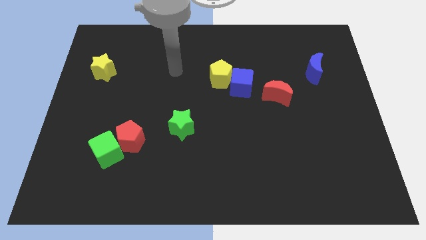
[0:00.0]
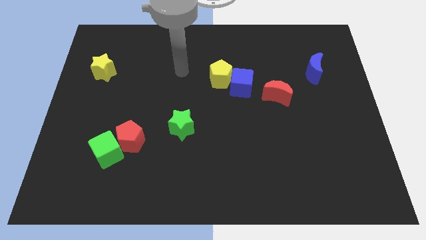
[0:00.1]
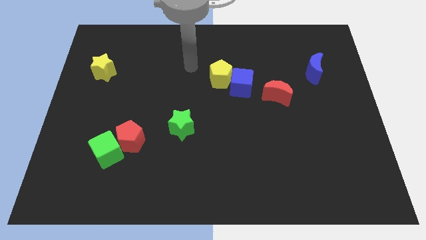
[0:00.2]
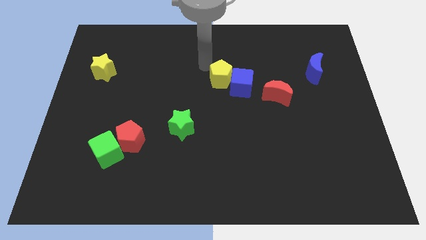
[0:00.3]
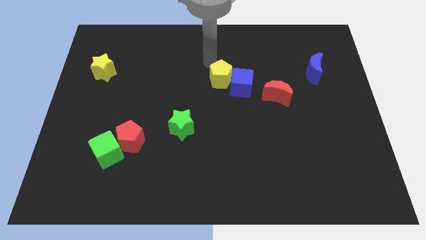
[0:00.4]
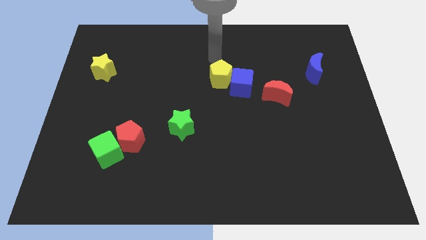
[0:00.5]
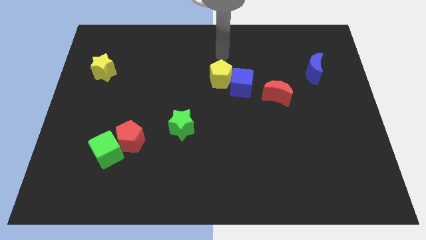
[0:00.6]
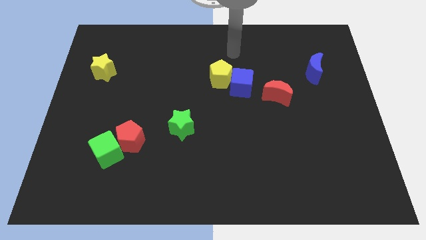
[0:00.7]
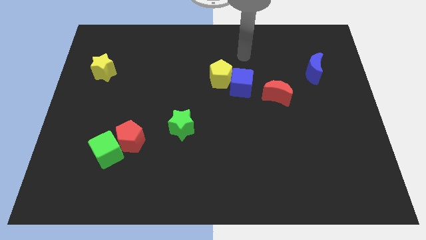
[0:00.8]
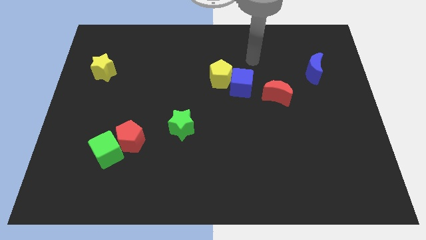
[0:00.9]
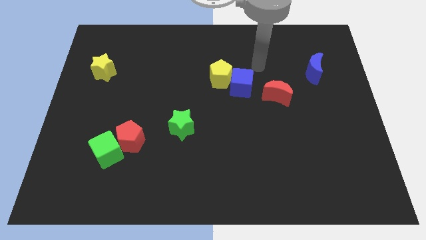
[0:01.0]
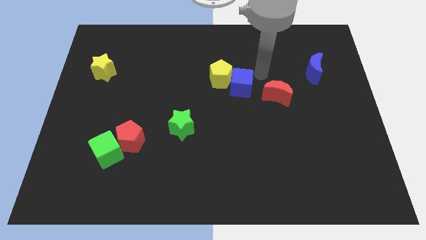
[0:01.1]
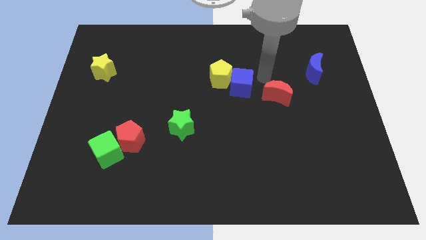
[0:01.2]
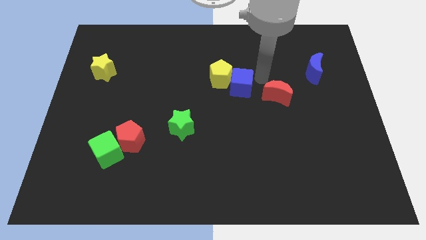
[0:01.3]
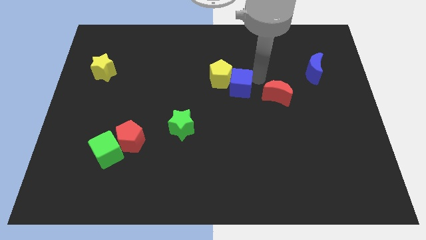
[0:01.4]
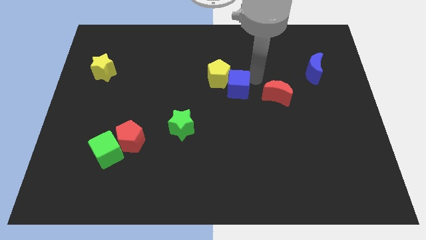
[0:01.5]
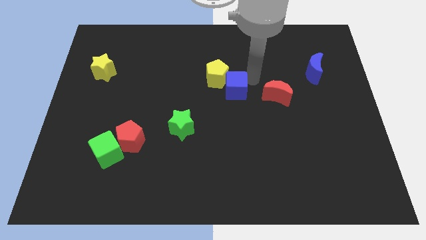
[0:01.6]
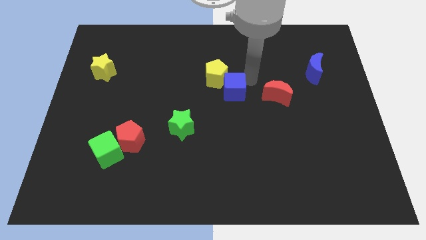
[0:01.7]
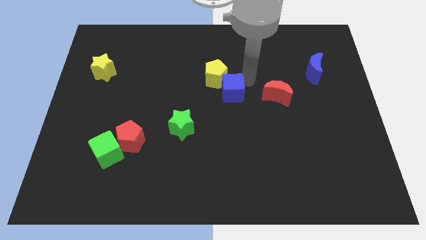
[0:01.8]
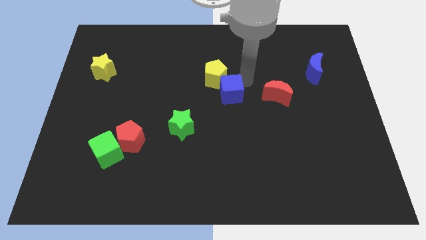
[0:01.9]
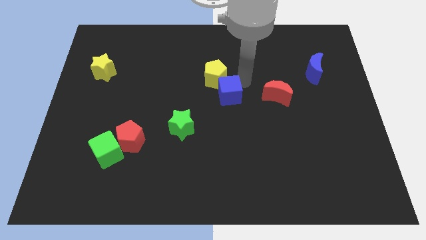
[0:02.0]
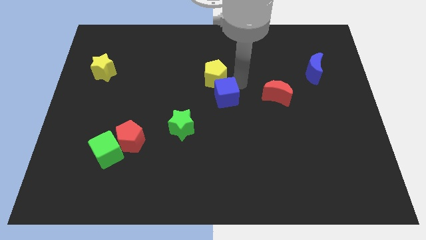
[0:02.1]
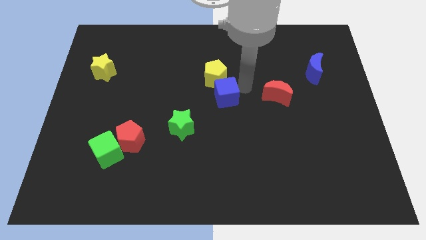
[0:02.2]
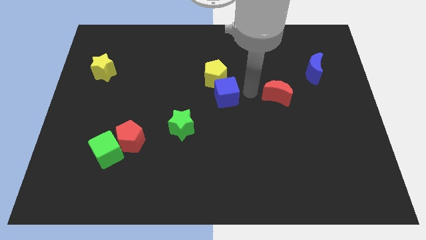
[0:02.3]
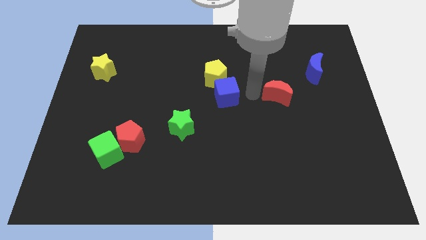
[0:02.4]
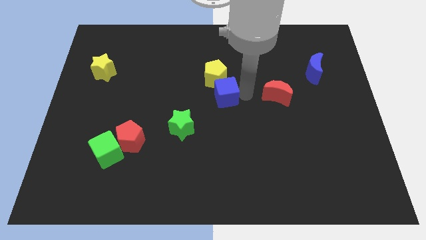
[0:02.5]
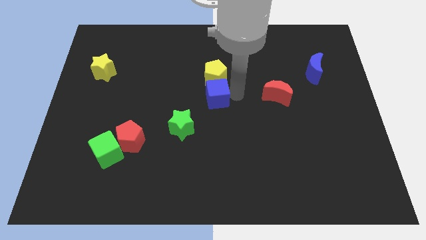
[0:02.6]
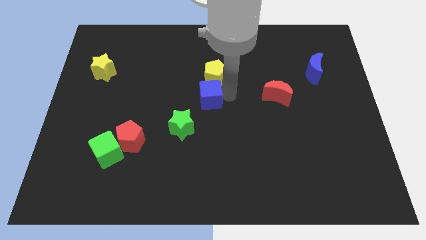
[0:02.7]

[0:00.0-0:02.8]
push the blue cube a bit left

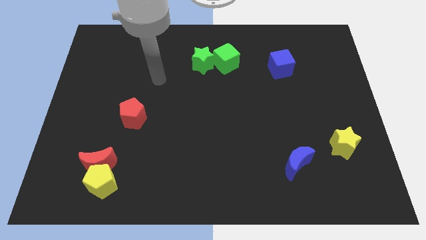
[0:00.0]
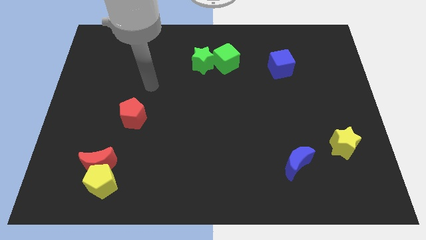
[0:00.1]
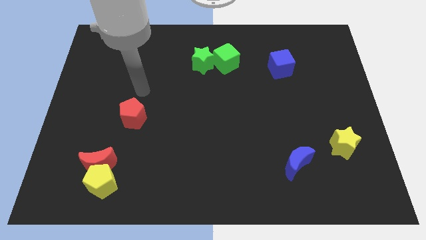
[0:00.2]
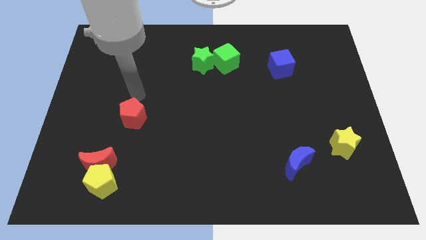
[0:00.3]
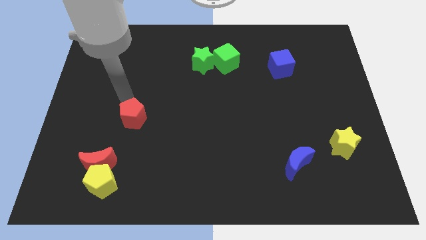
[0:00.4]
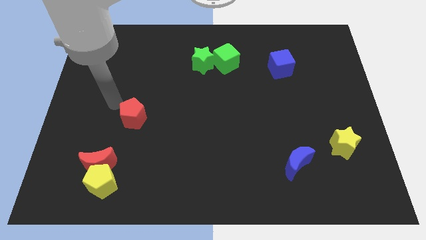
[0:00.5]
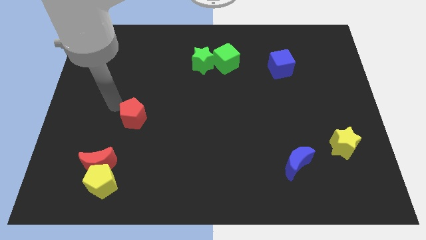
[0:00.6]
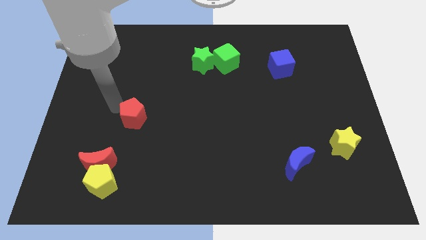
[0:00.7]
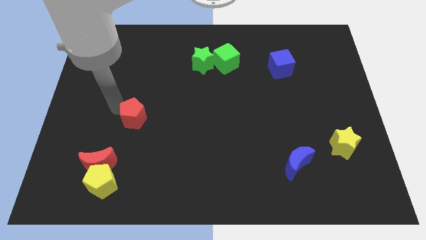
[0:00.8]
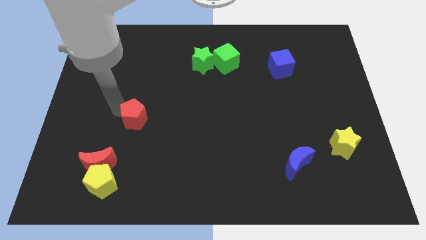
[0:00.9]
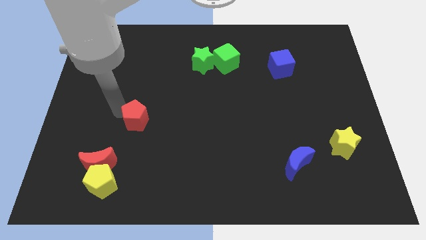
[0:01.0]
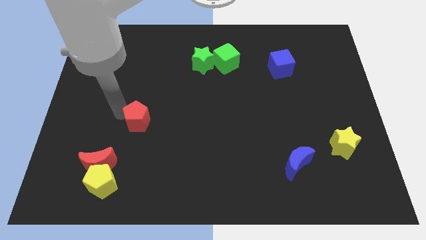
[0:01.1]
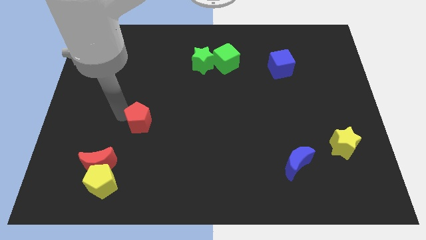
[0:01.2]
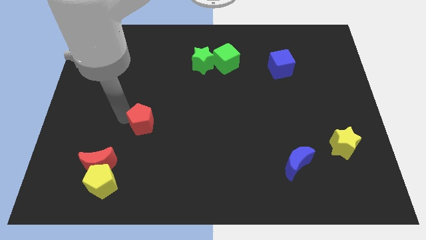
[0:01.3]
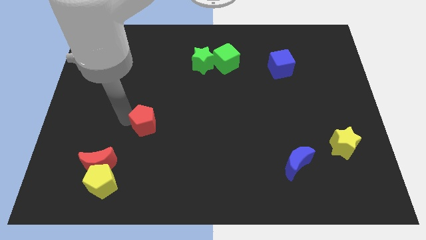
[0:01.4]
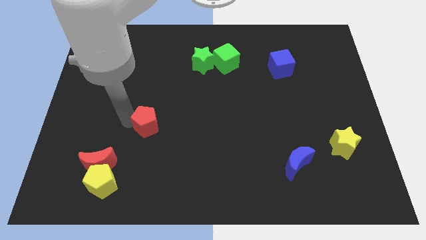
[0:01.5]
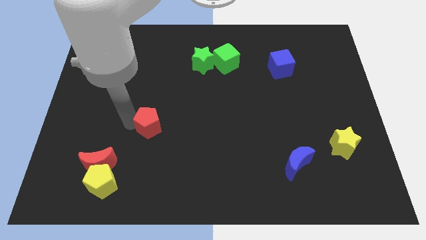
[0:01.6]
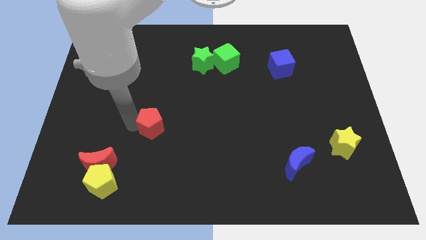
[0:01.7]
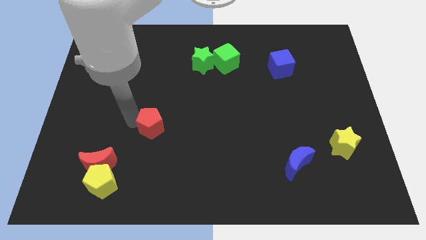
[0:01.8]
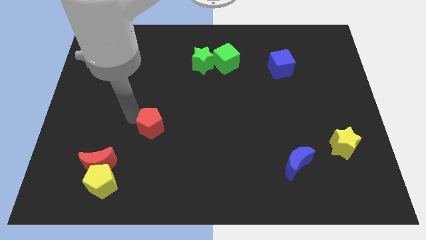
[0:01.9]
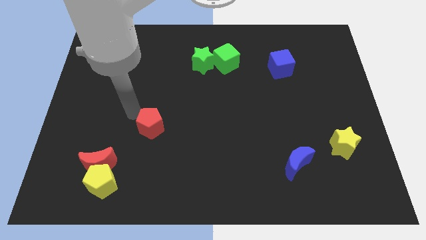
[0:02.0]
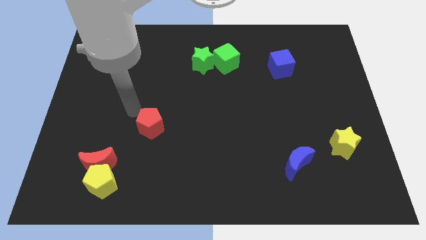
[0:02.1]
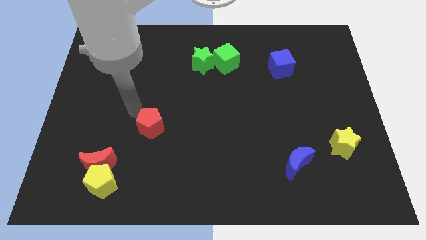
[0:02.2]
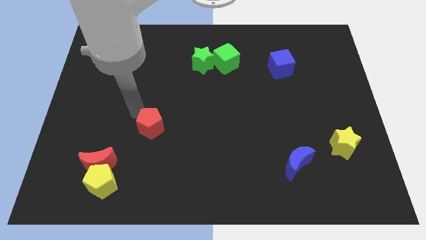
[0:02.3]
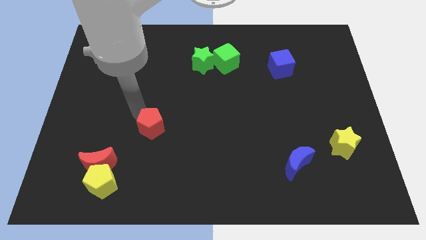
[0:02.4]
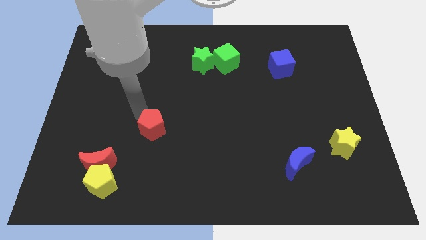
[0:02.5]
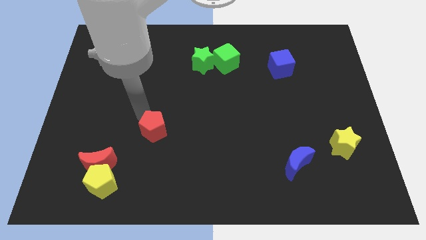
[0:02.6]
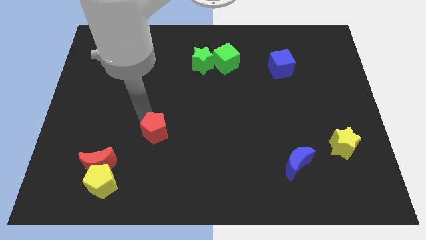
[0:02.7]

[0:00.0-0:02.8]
slightly move the red pentagon diagonally downwards and to the right

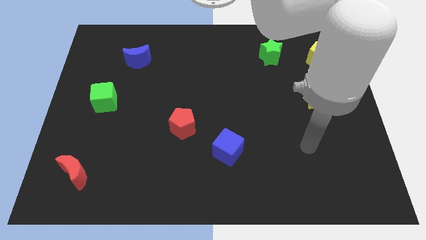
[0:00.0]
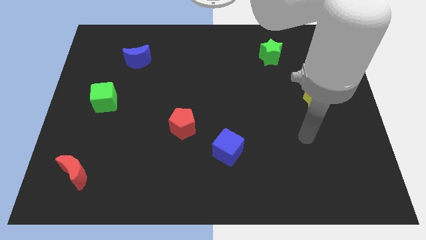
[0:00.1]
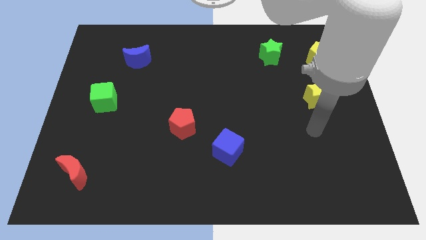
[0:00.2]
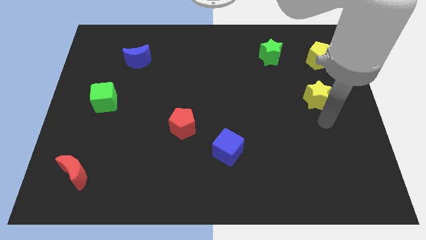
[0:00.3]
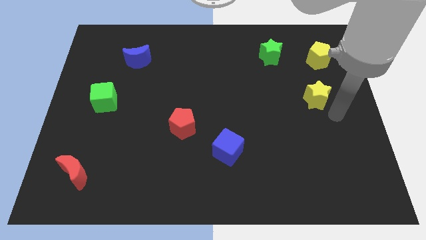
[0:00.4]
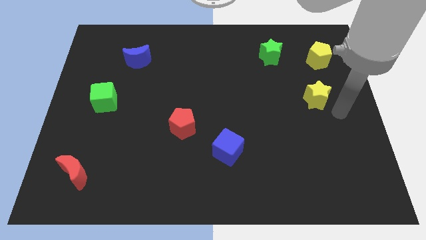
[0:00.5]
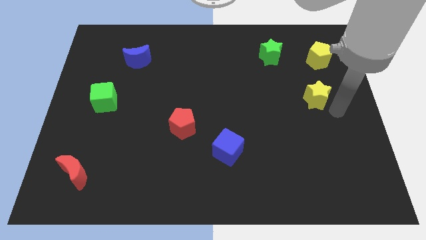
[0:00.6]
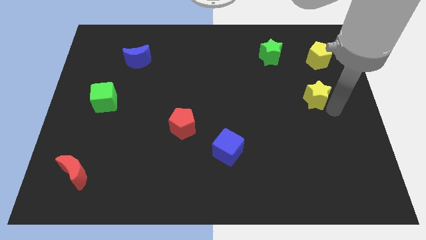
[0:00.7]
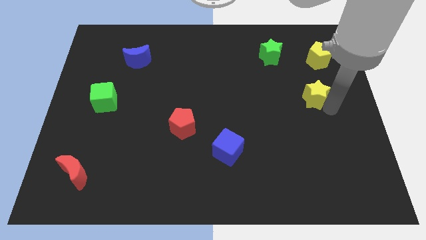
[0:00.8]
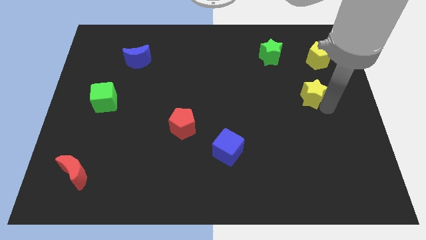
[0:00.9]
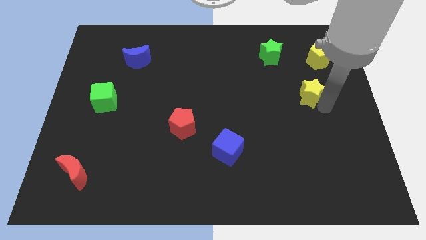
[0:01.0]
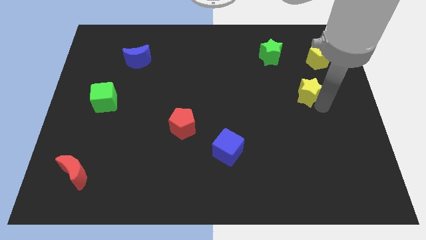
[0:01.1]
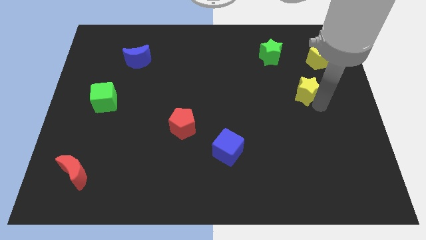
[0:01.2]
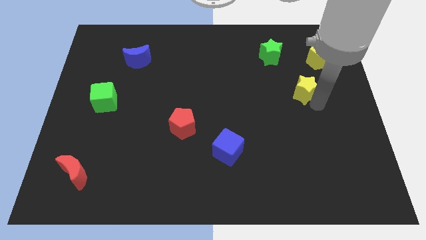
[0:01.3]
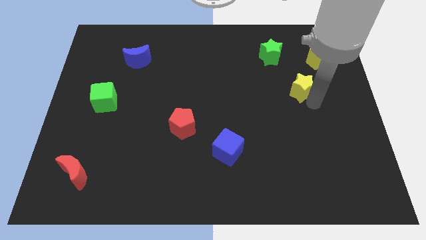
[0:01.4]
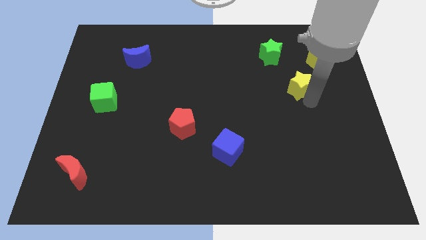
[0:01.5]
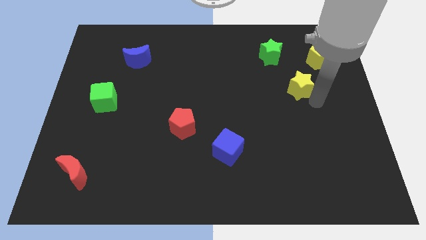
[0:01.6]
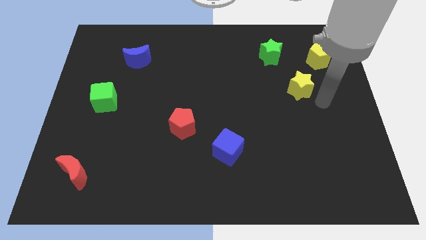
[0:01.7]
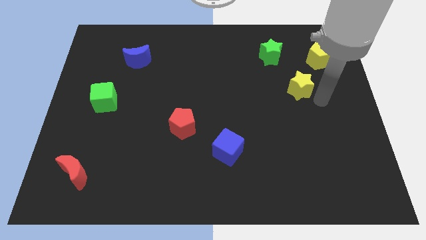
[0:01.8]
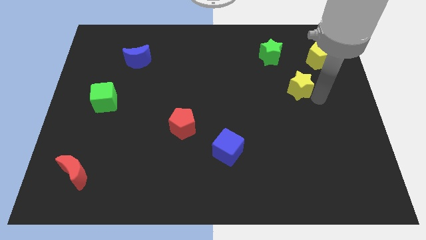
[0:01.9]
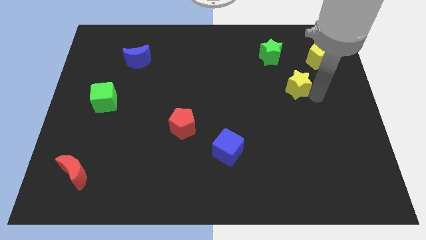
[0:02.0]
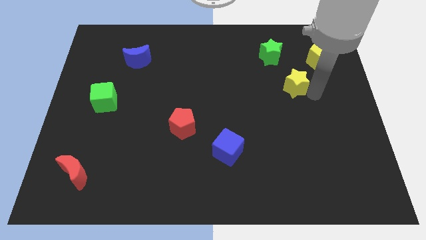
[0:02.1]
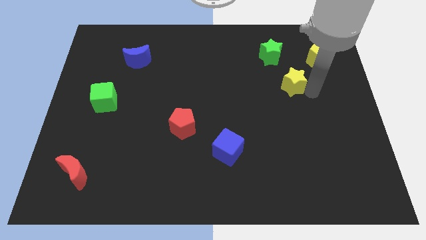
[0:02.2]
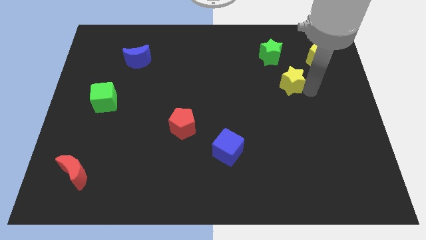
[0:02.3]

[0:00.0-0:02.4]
slightly slide the yellow star upwards and left diagonally
